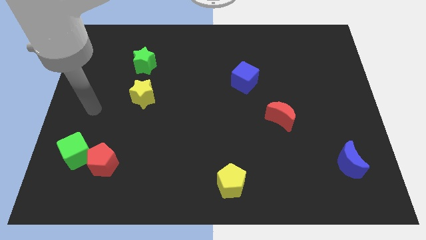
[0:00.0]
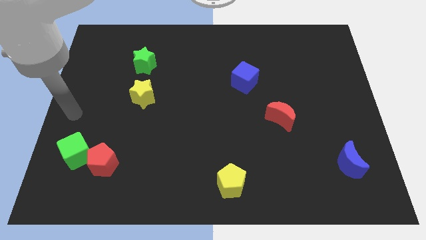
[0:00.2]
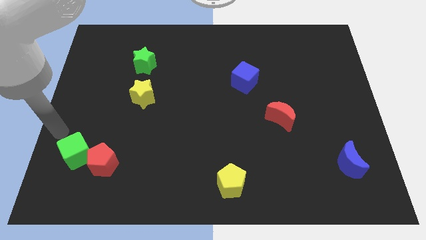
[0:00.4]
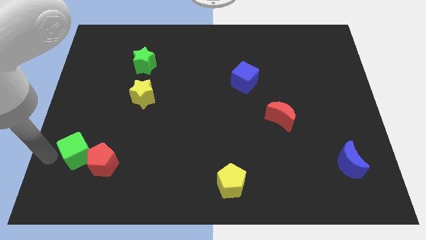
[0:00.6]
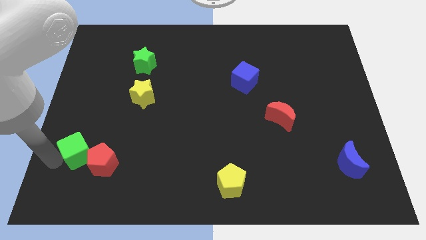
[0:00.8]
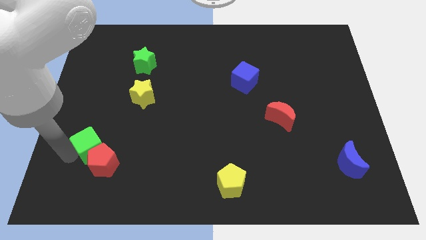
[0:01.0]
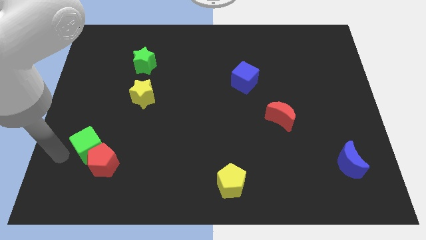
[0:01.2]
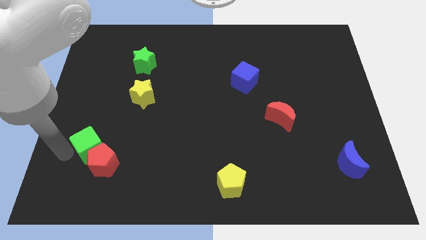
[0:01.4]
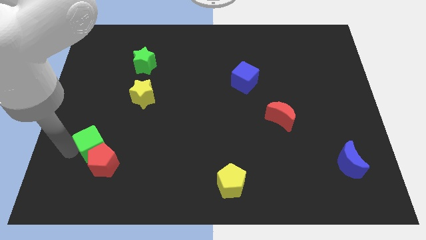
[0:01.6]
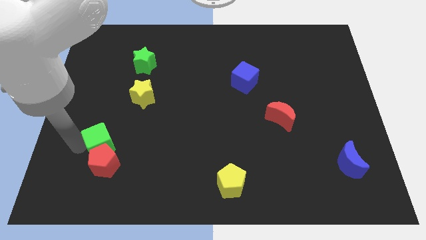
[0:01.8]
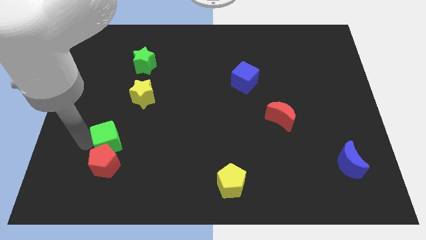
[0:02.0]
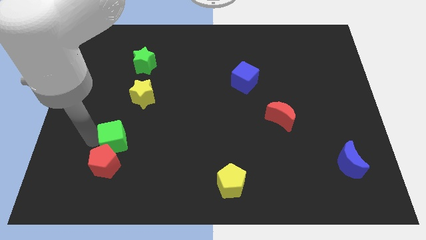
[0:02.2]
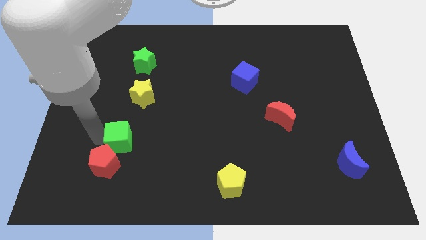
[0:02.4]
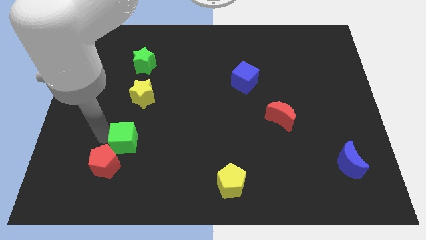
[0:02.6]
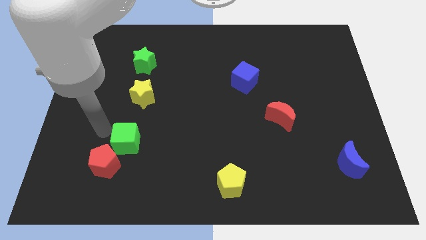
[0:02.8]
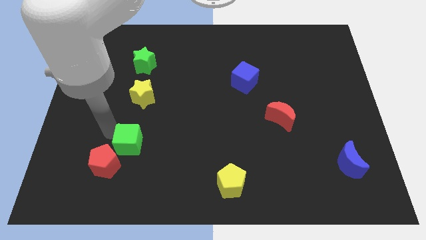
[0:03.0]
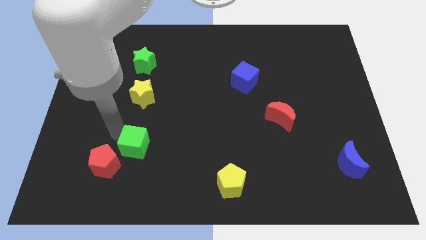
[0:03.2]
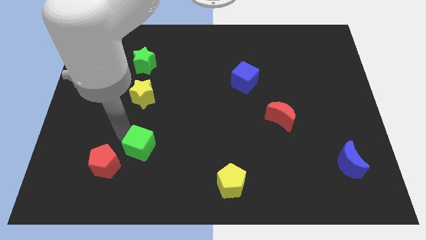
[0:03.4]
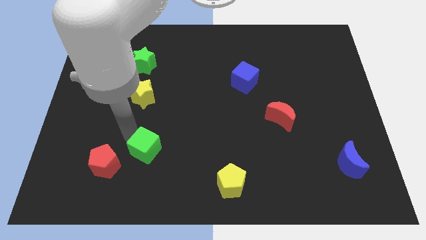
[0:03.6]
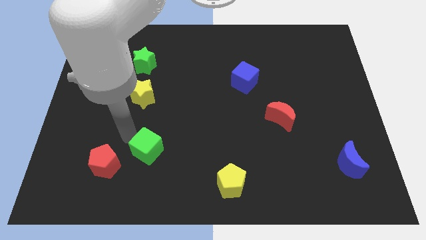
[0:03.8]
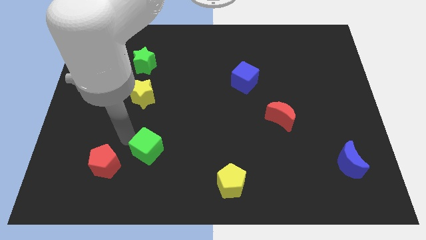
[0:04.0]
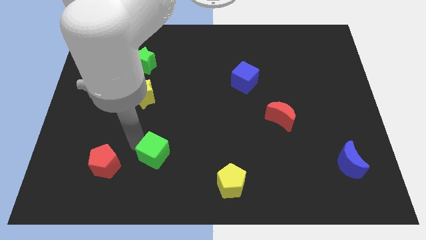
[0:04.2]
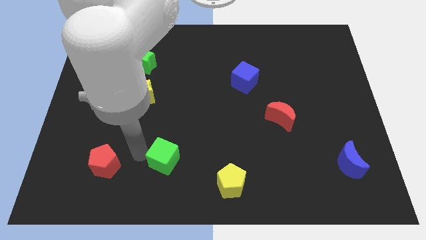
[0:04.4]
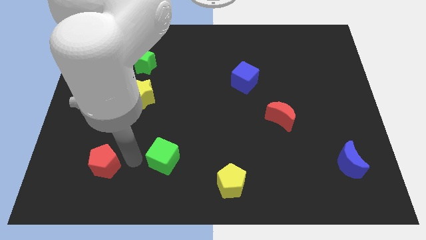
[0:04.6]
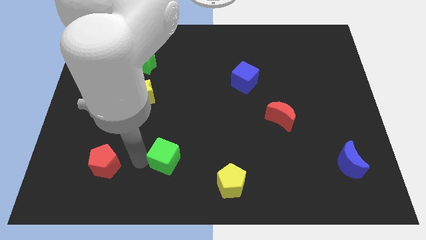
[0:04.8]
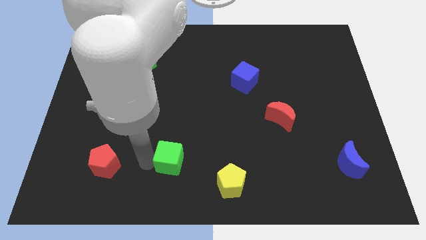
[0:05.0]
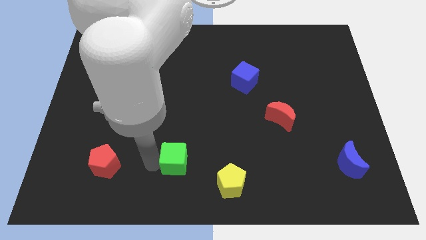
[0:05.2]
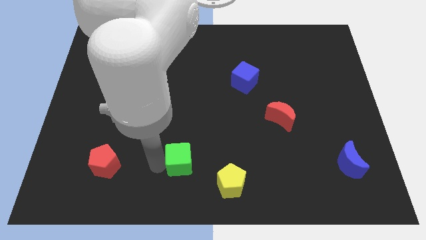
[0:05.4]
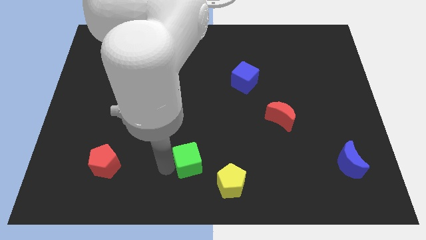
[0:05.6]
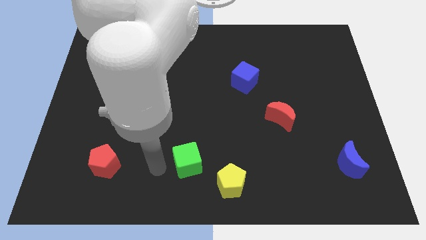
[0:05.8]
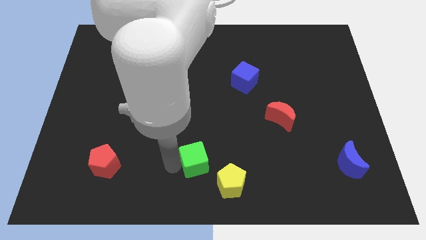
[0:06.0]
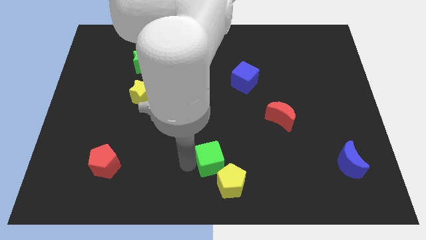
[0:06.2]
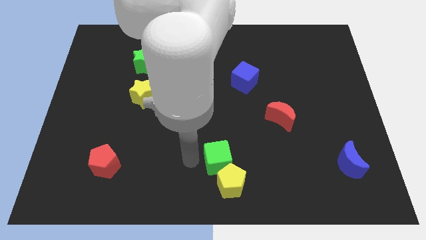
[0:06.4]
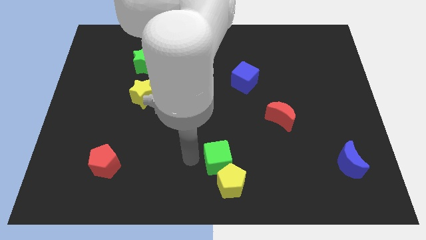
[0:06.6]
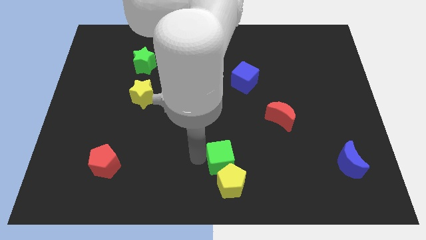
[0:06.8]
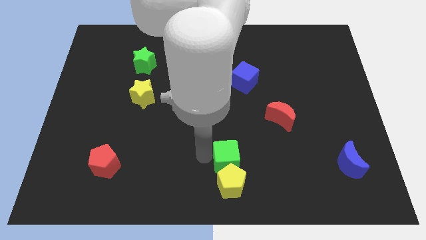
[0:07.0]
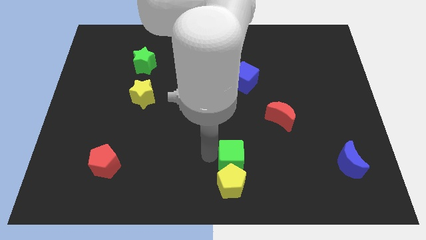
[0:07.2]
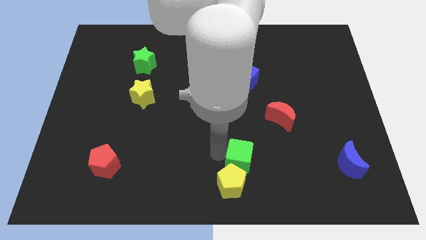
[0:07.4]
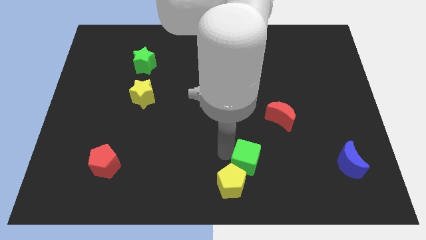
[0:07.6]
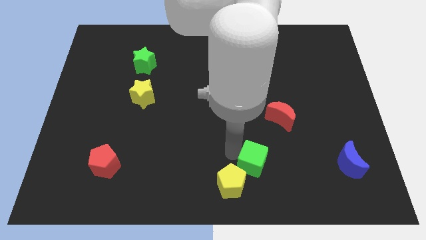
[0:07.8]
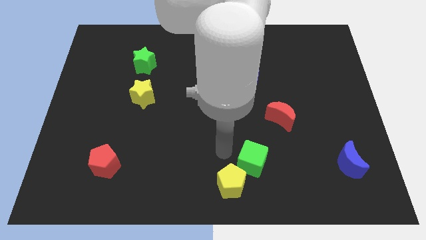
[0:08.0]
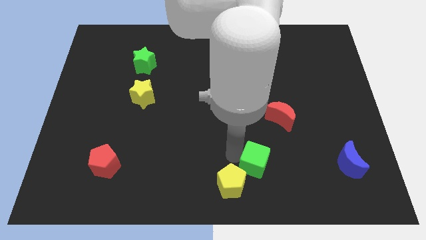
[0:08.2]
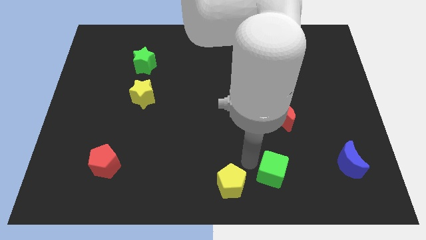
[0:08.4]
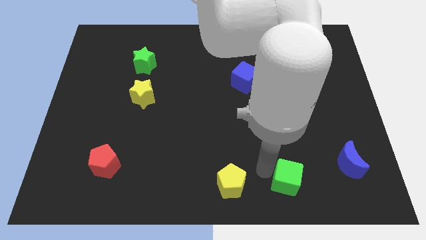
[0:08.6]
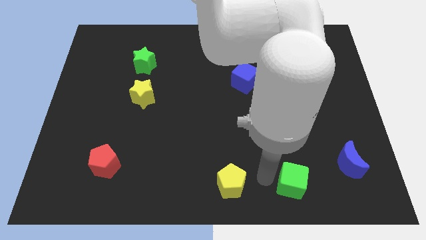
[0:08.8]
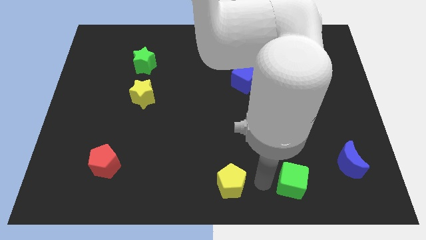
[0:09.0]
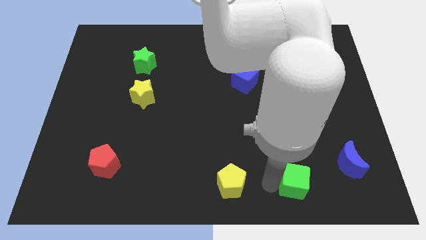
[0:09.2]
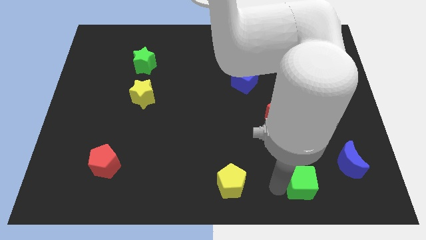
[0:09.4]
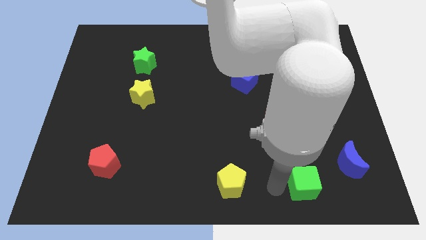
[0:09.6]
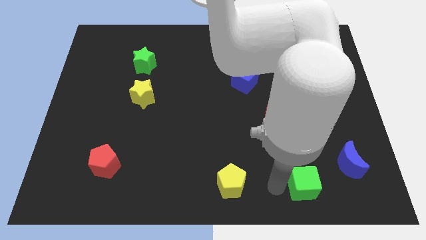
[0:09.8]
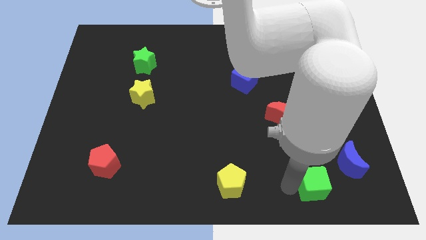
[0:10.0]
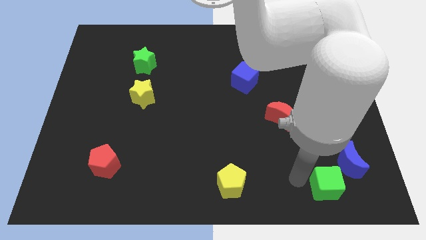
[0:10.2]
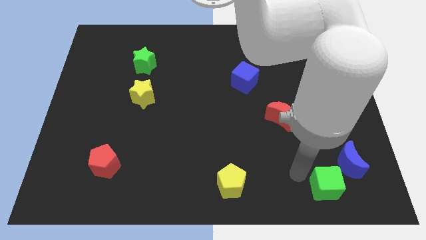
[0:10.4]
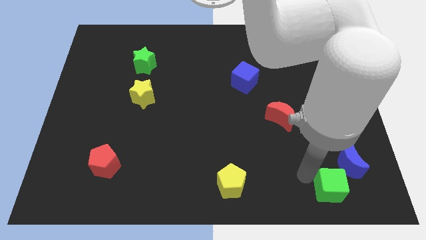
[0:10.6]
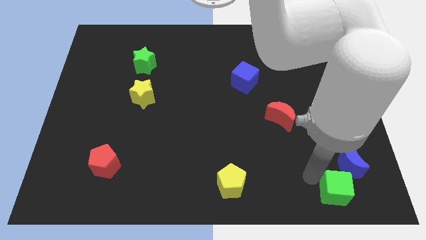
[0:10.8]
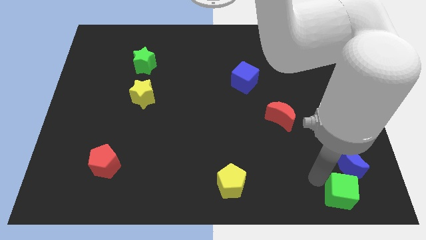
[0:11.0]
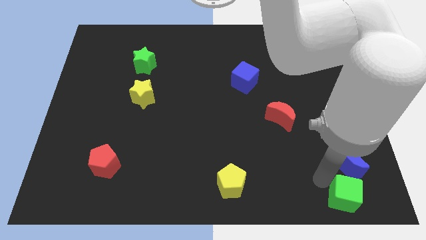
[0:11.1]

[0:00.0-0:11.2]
put the green cube to the bottom right corner
